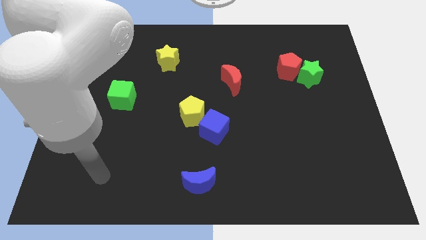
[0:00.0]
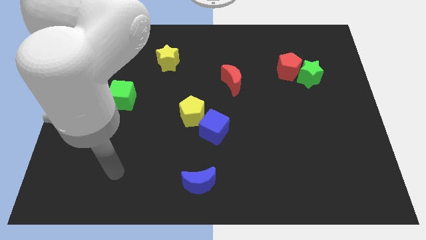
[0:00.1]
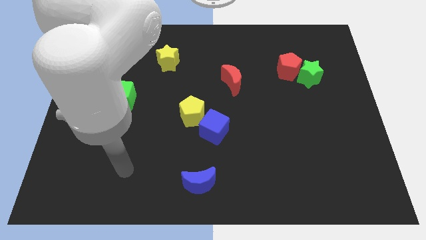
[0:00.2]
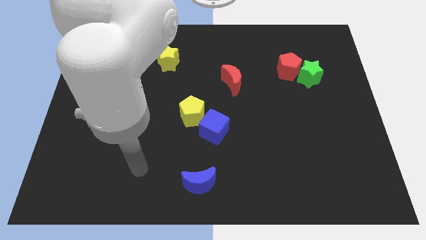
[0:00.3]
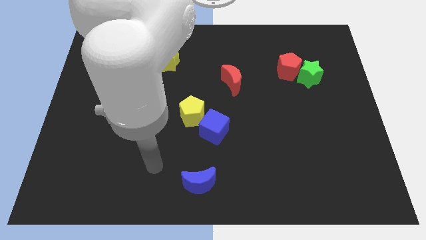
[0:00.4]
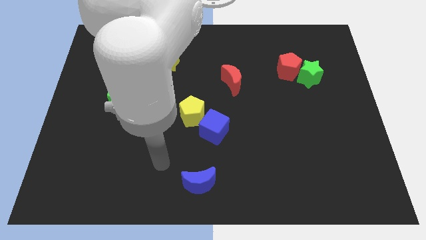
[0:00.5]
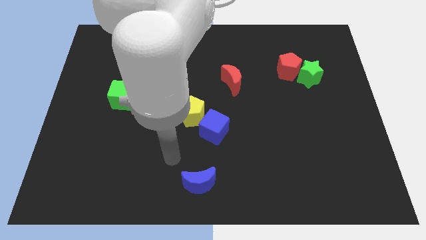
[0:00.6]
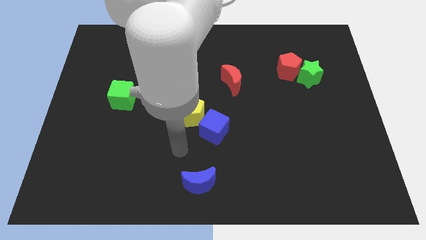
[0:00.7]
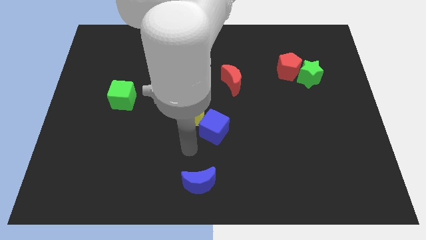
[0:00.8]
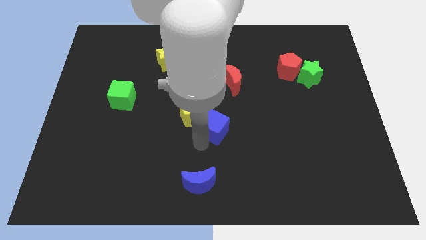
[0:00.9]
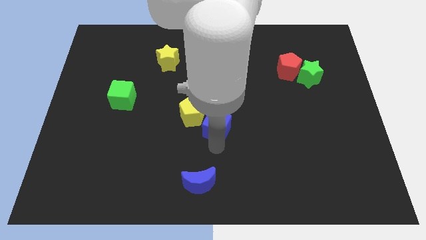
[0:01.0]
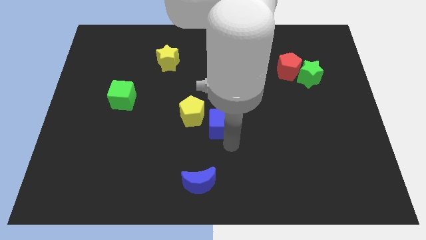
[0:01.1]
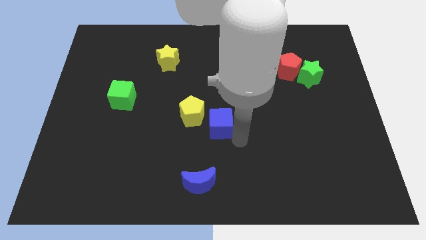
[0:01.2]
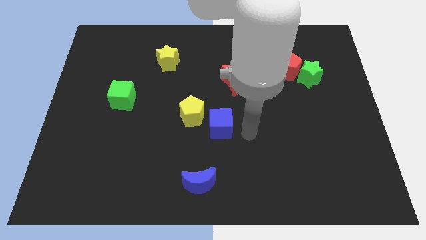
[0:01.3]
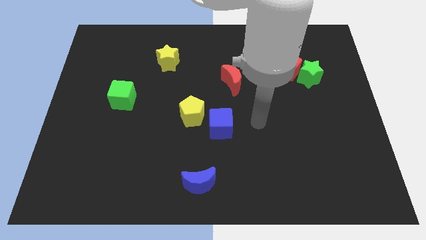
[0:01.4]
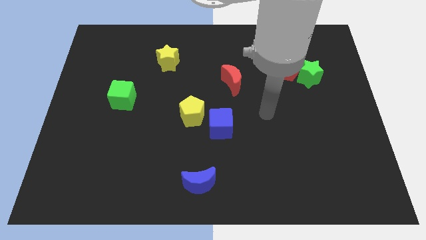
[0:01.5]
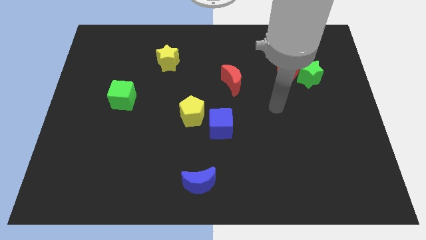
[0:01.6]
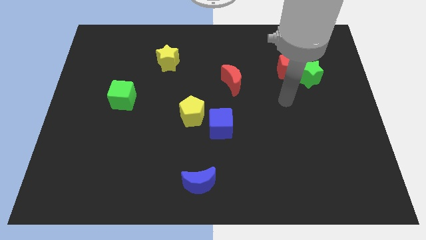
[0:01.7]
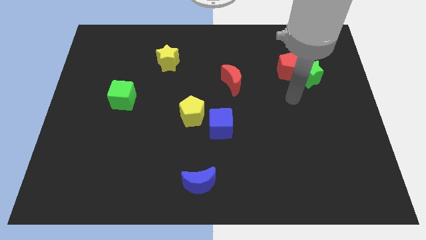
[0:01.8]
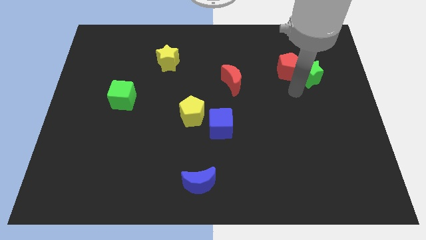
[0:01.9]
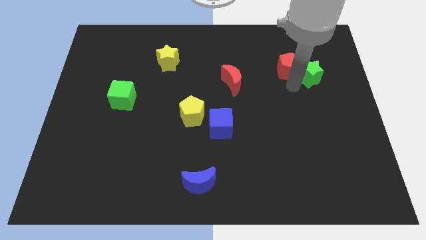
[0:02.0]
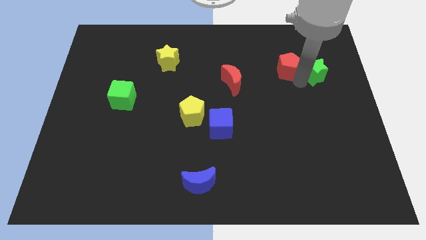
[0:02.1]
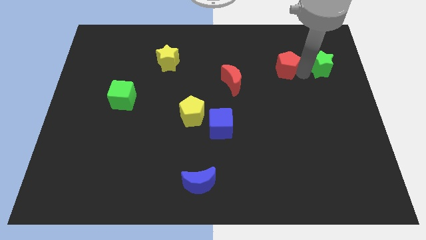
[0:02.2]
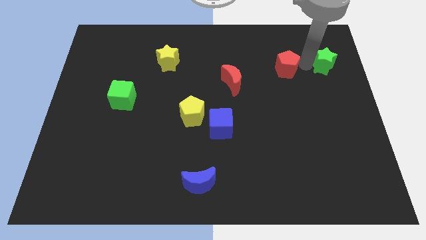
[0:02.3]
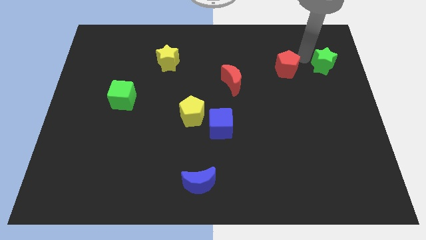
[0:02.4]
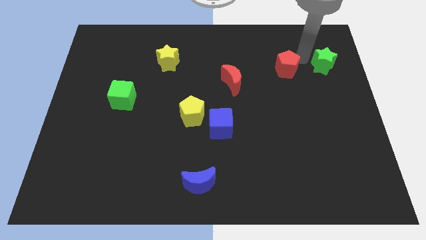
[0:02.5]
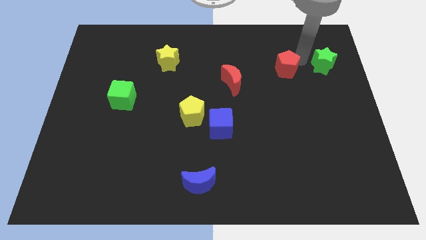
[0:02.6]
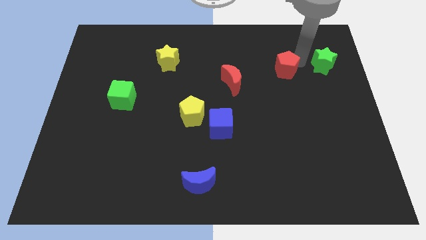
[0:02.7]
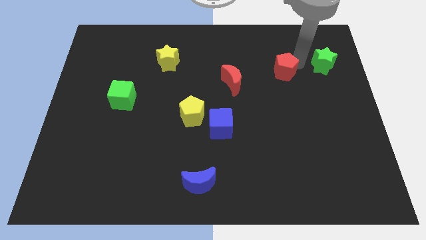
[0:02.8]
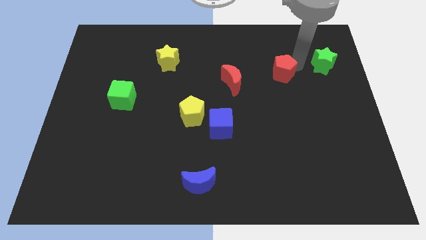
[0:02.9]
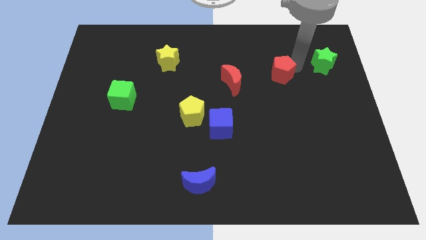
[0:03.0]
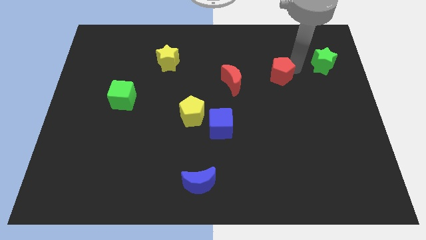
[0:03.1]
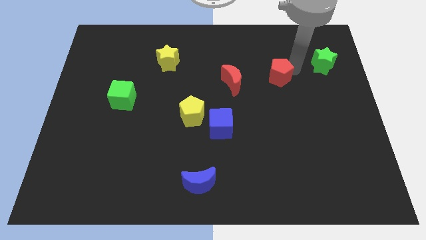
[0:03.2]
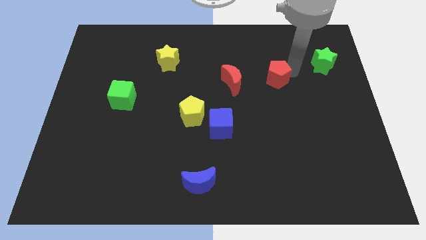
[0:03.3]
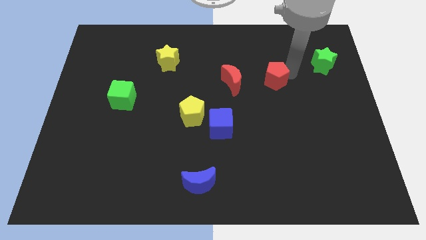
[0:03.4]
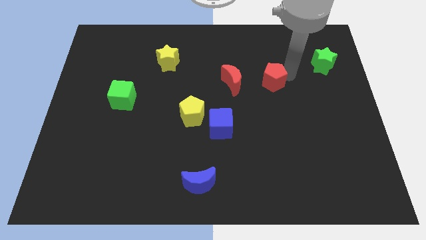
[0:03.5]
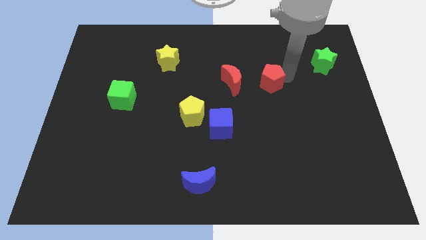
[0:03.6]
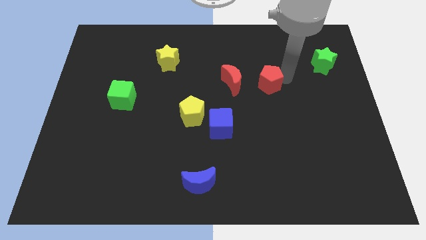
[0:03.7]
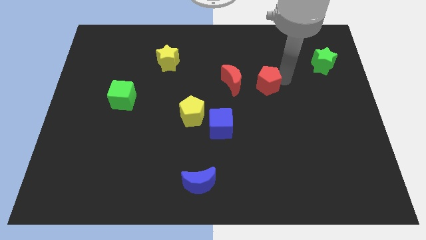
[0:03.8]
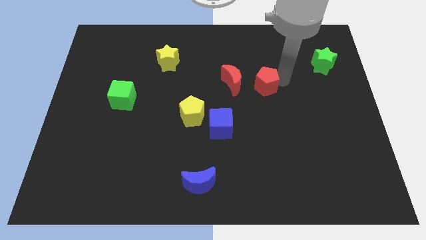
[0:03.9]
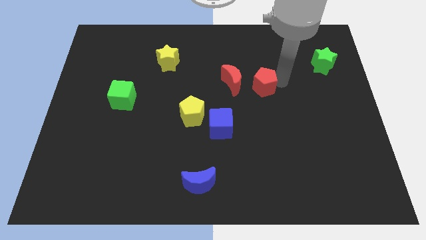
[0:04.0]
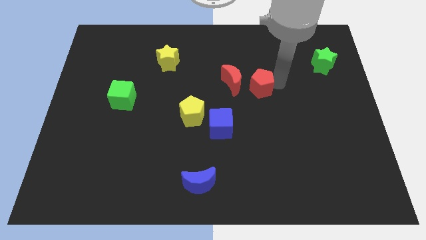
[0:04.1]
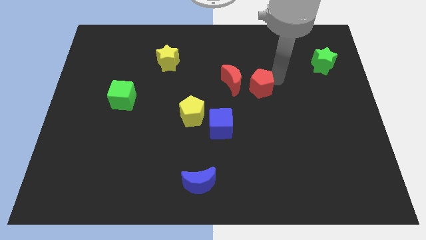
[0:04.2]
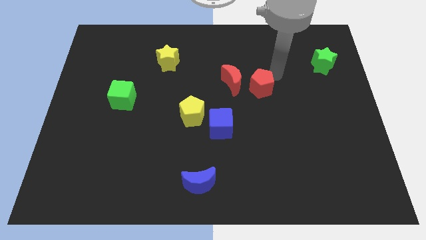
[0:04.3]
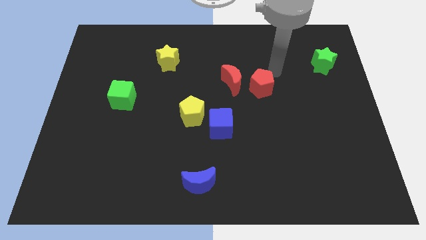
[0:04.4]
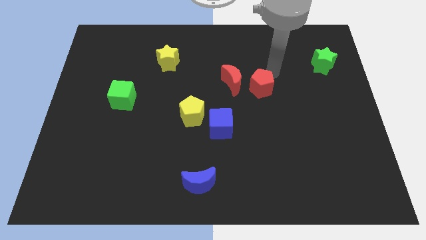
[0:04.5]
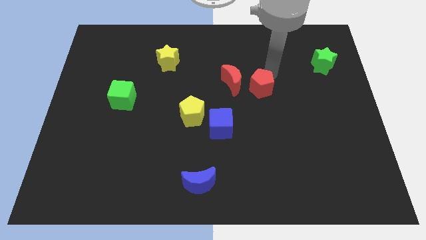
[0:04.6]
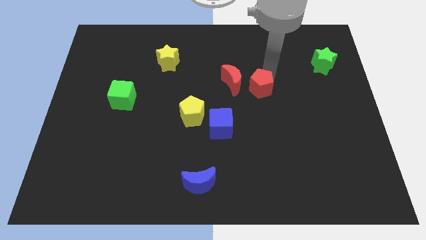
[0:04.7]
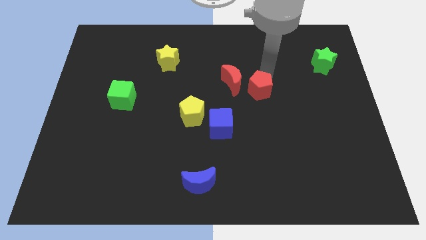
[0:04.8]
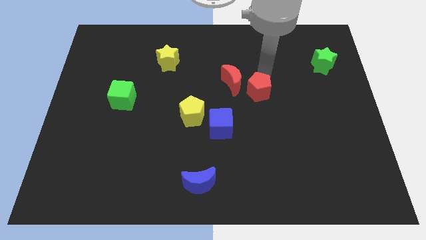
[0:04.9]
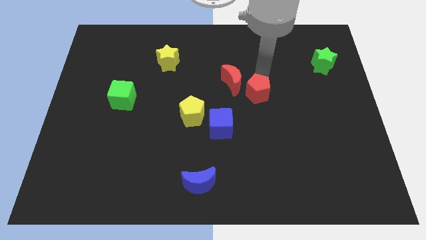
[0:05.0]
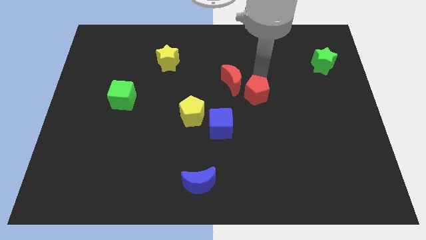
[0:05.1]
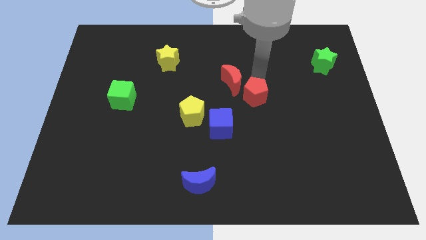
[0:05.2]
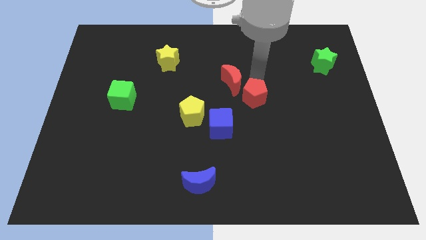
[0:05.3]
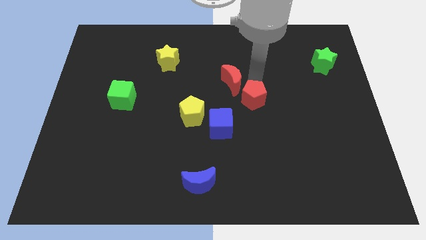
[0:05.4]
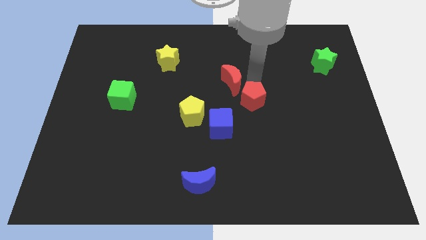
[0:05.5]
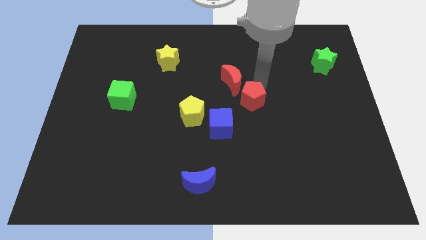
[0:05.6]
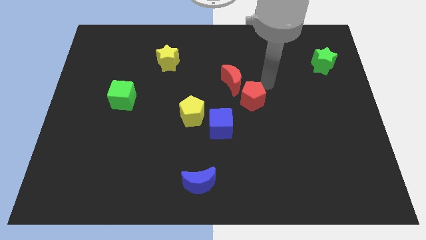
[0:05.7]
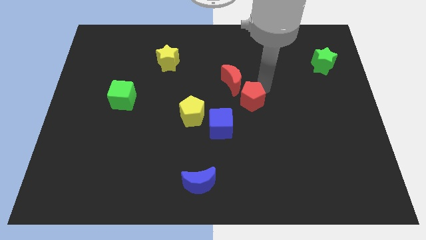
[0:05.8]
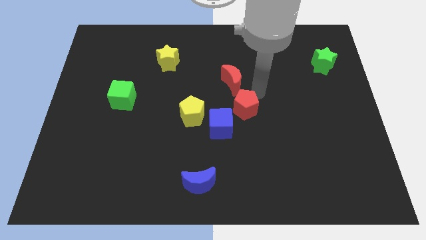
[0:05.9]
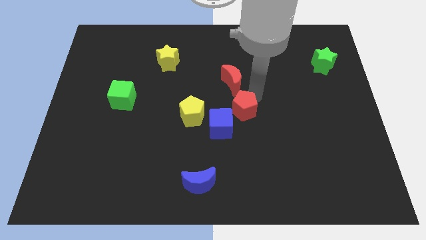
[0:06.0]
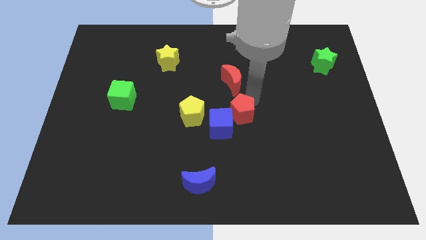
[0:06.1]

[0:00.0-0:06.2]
push the red pentagon towards the blue cube

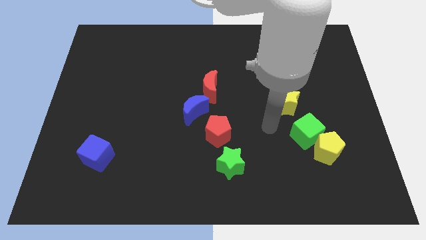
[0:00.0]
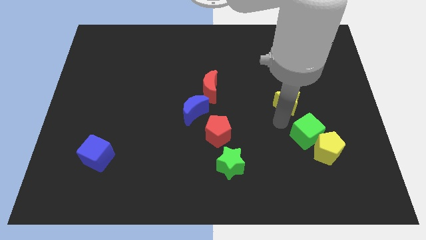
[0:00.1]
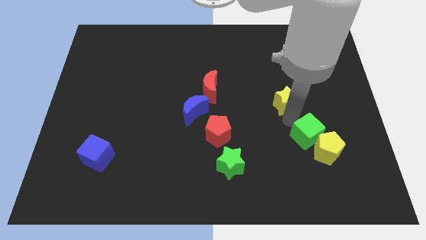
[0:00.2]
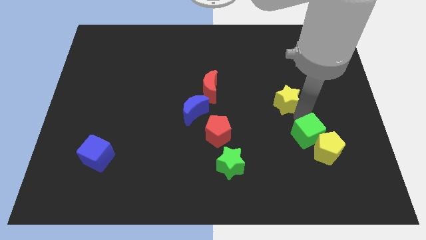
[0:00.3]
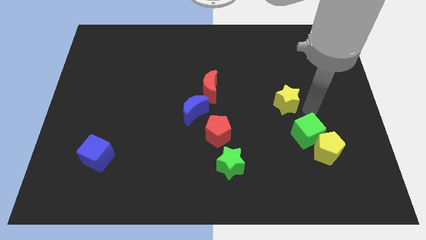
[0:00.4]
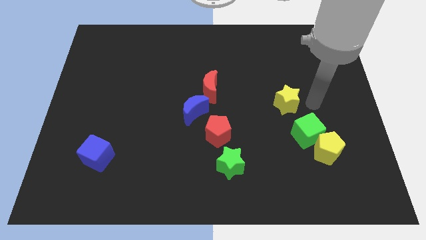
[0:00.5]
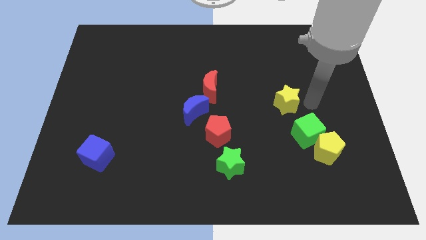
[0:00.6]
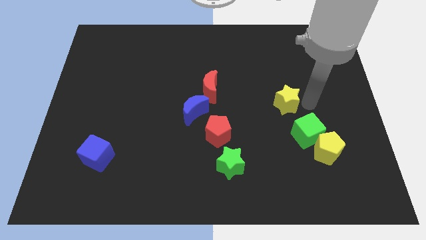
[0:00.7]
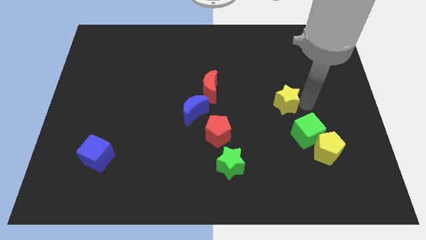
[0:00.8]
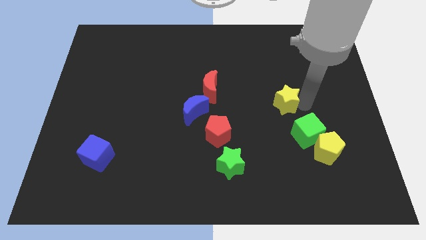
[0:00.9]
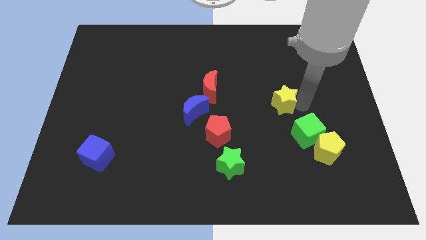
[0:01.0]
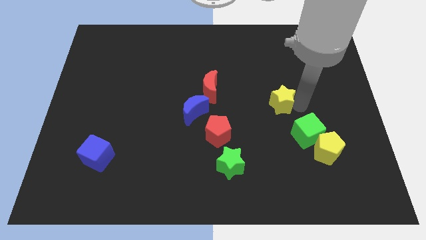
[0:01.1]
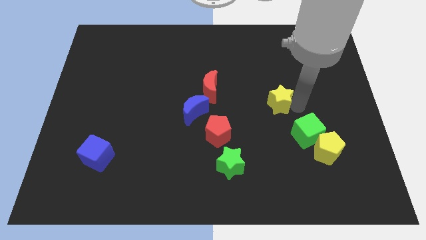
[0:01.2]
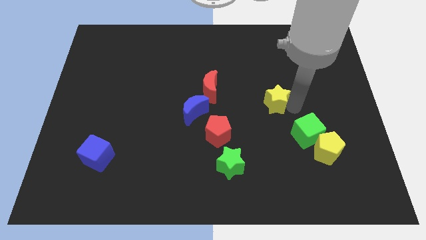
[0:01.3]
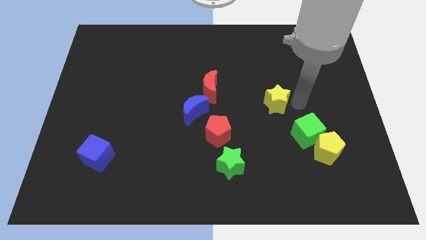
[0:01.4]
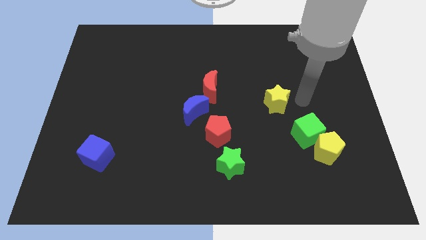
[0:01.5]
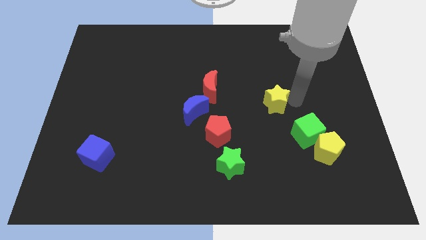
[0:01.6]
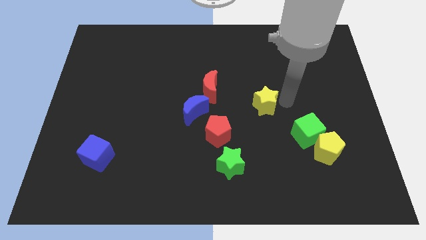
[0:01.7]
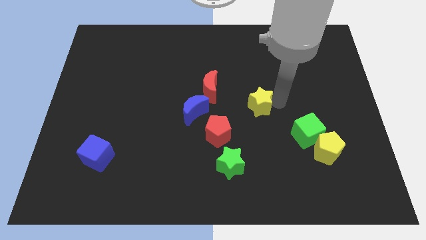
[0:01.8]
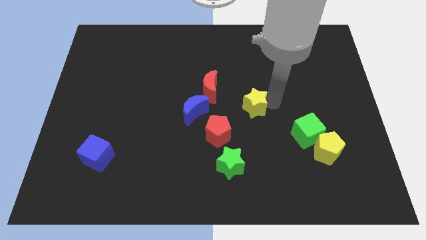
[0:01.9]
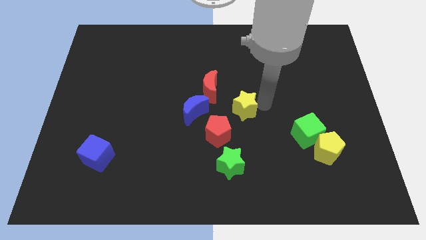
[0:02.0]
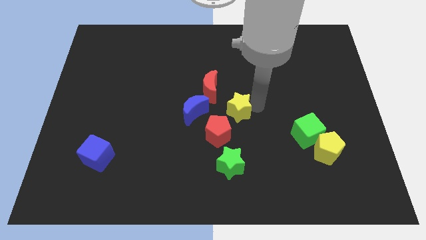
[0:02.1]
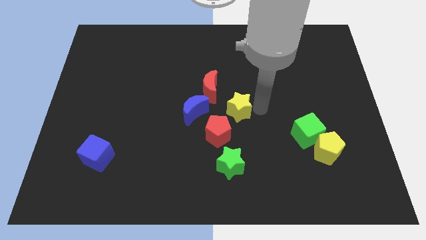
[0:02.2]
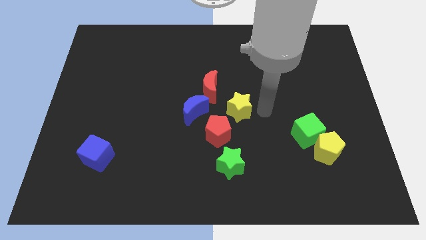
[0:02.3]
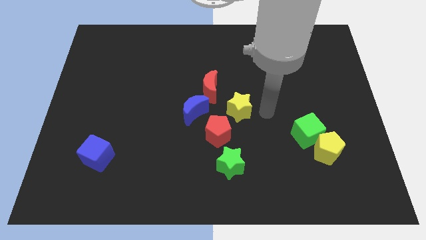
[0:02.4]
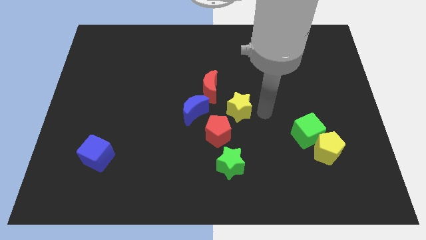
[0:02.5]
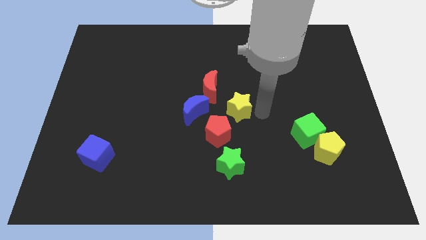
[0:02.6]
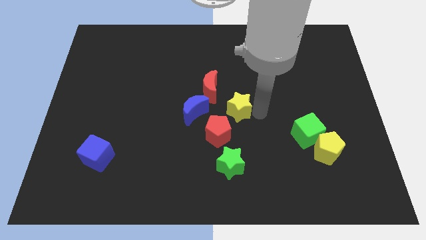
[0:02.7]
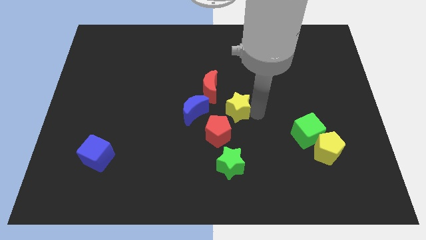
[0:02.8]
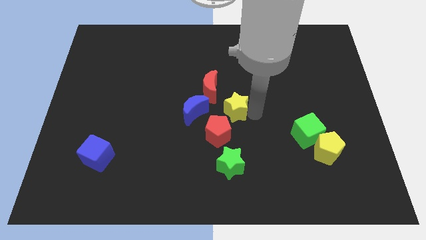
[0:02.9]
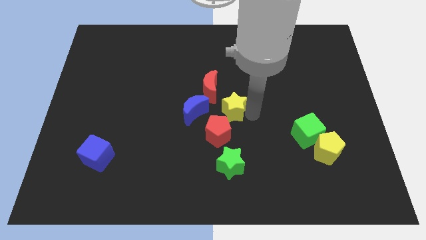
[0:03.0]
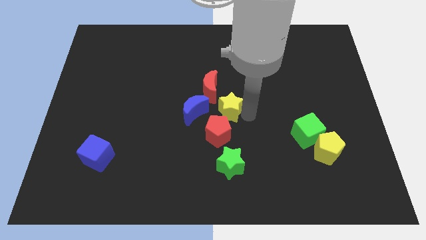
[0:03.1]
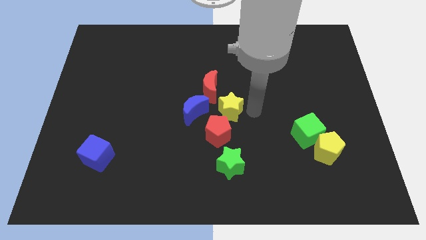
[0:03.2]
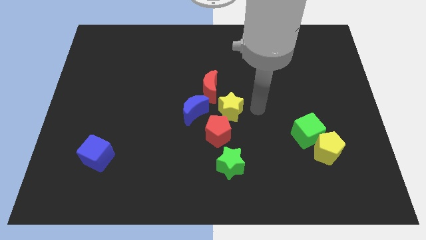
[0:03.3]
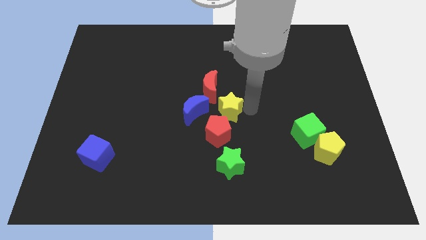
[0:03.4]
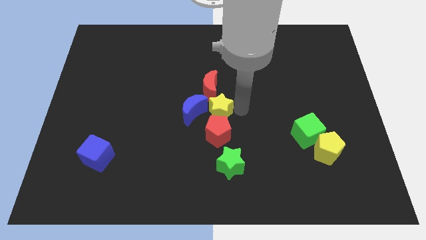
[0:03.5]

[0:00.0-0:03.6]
push the yellow star next to the blue moon
